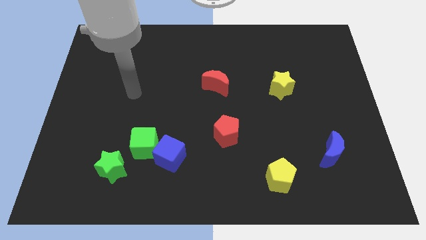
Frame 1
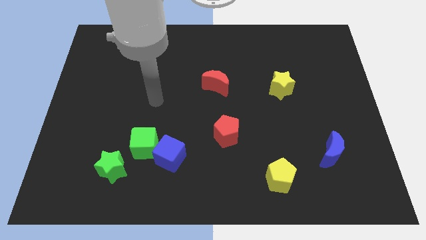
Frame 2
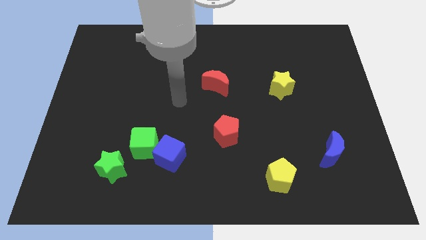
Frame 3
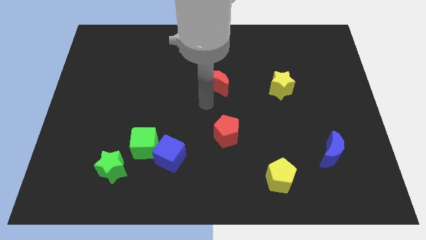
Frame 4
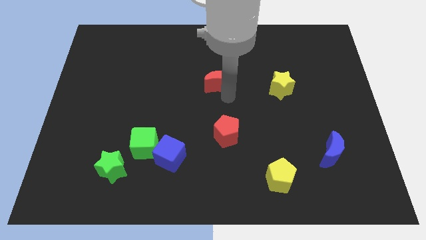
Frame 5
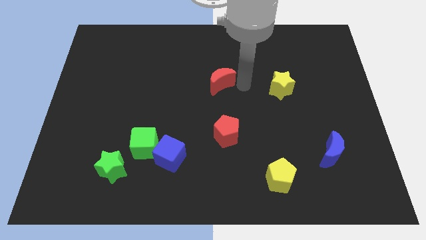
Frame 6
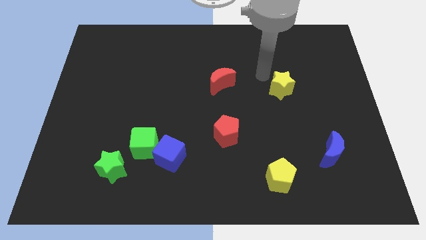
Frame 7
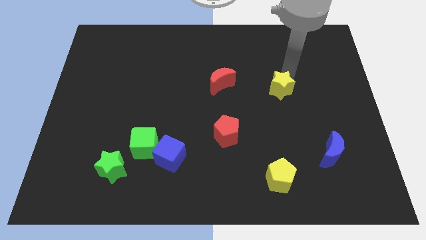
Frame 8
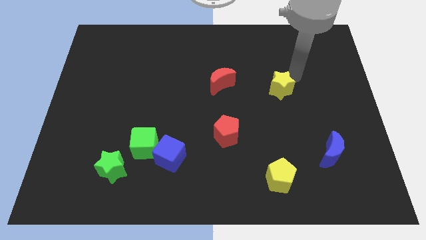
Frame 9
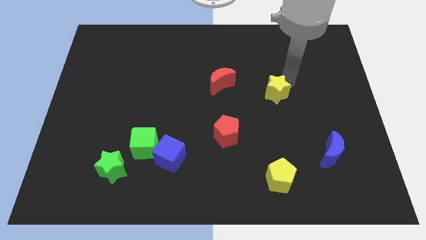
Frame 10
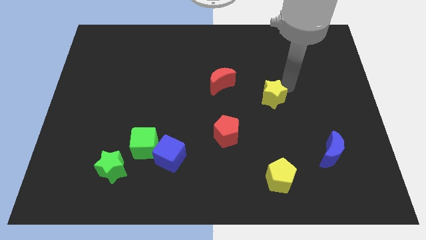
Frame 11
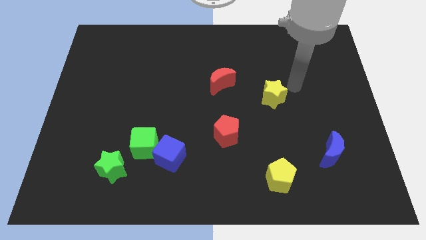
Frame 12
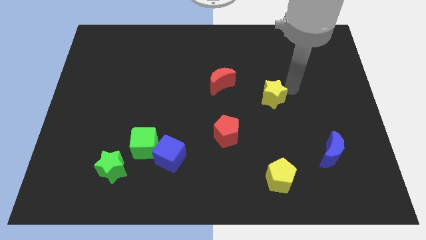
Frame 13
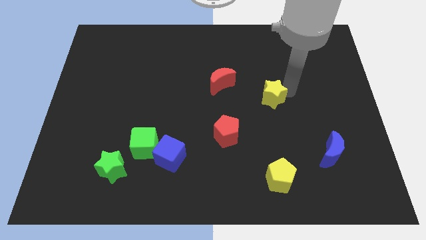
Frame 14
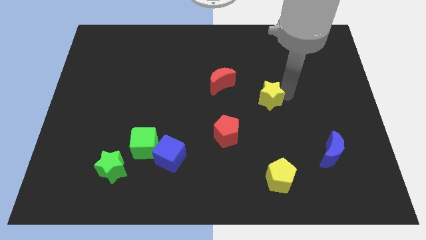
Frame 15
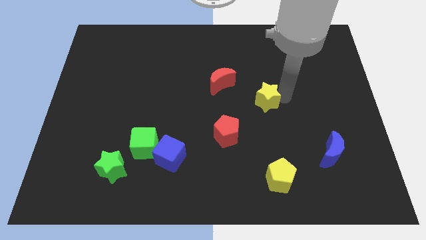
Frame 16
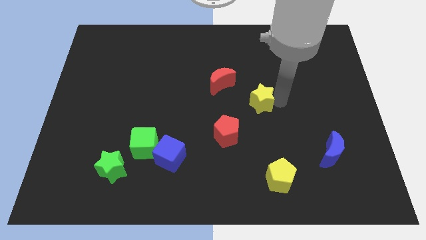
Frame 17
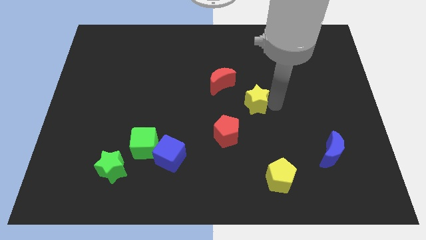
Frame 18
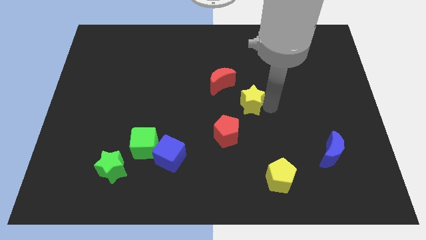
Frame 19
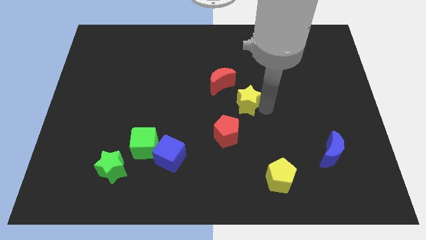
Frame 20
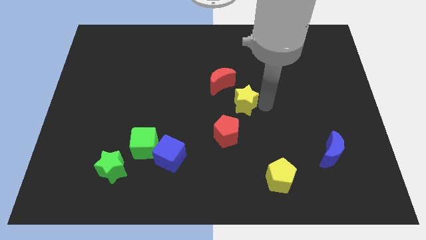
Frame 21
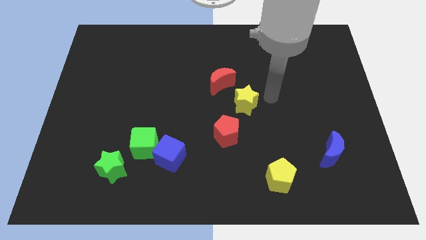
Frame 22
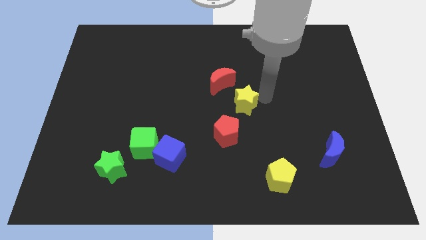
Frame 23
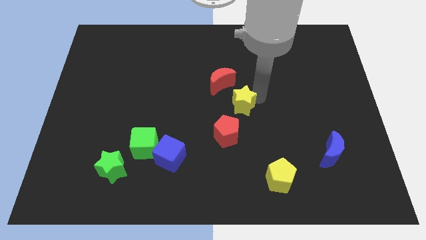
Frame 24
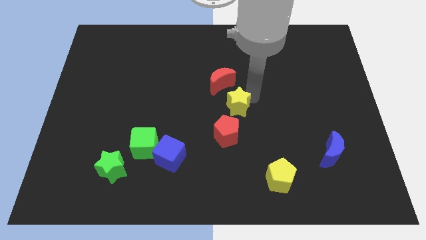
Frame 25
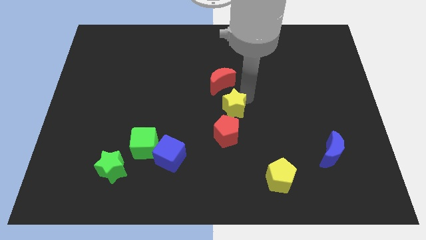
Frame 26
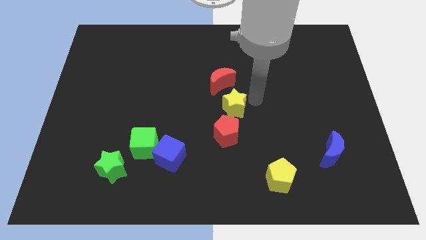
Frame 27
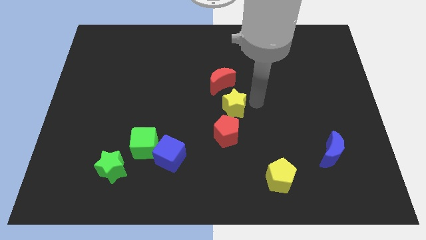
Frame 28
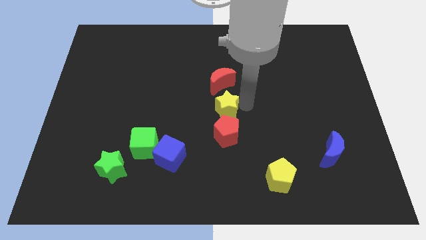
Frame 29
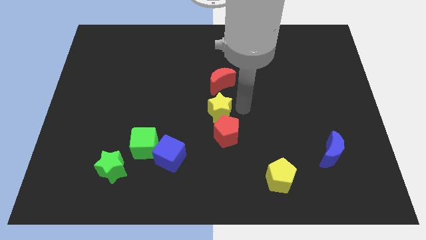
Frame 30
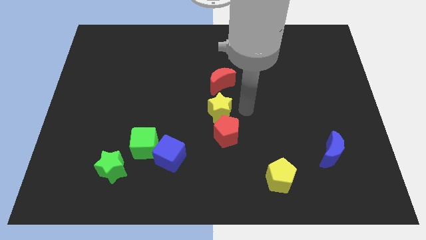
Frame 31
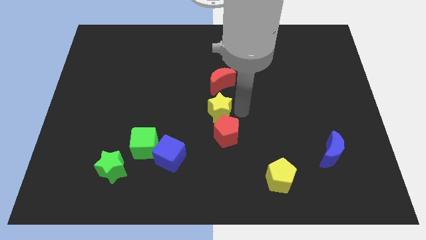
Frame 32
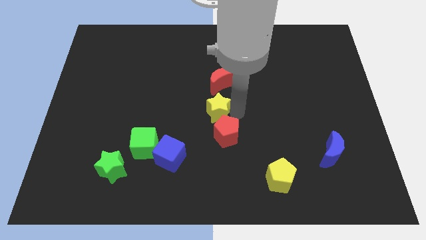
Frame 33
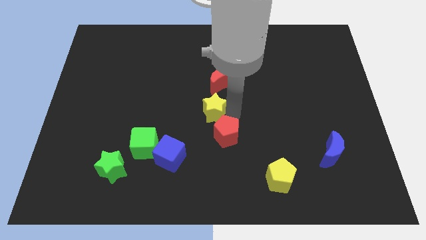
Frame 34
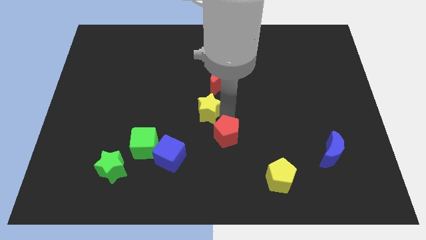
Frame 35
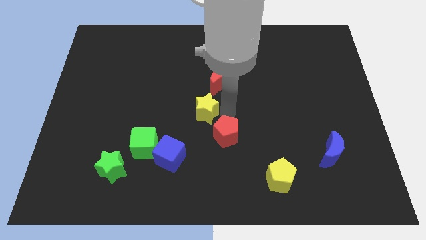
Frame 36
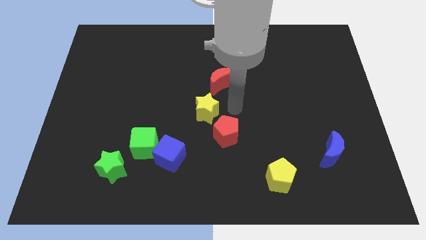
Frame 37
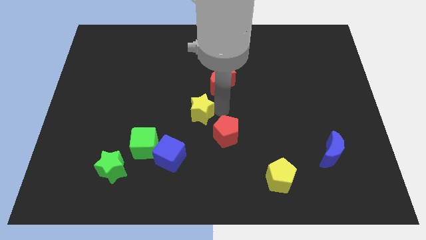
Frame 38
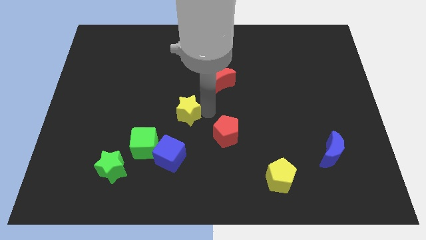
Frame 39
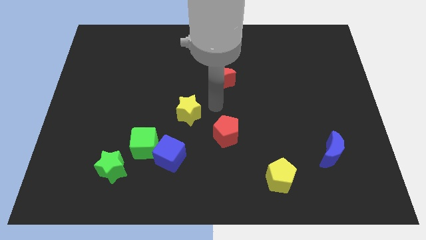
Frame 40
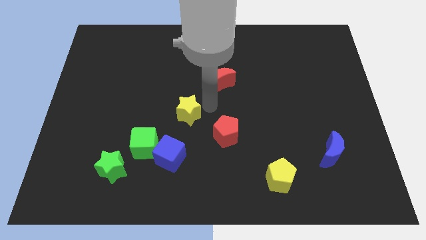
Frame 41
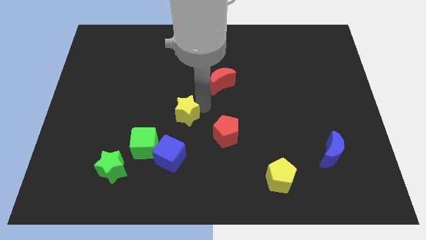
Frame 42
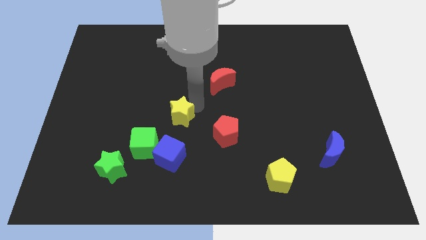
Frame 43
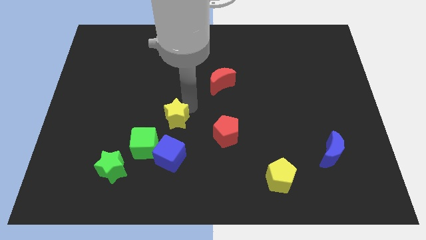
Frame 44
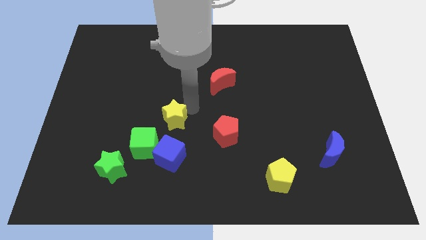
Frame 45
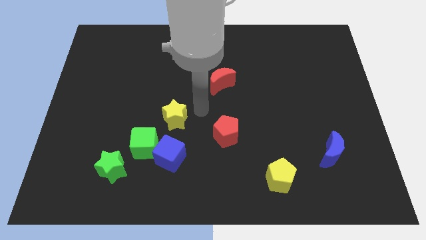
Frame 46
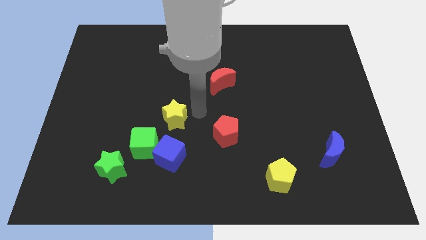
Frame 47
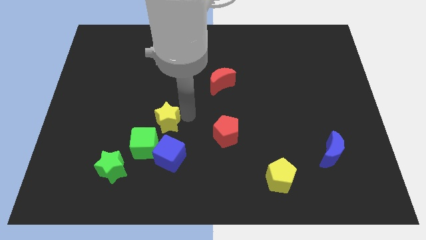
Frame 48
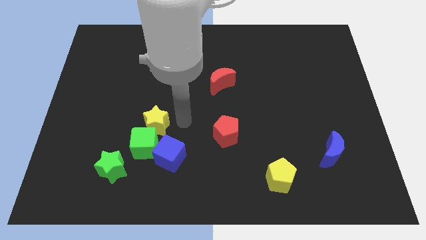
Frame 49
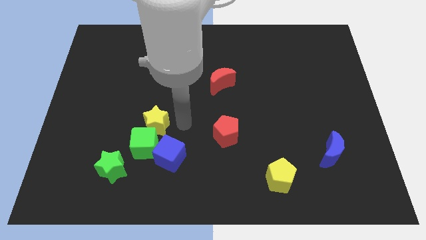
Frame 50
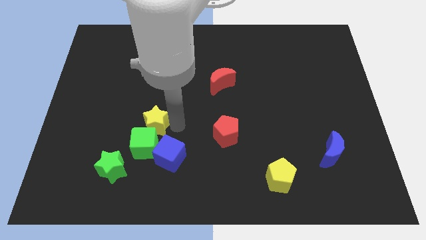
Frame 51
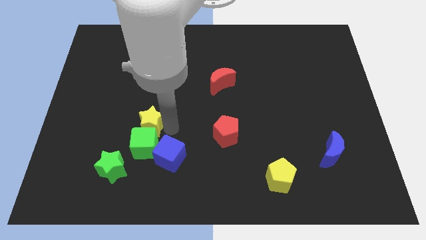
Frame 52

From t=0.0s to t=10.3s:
slide the yellow star diagonally up and to the left of the green cube

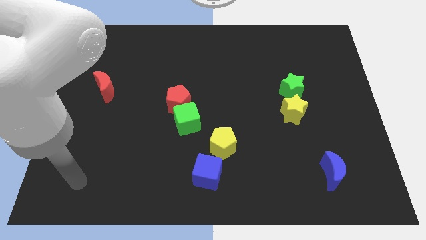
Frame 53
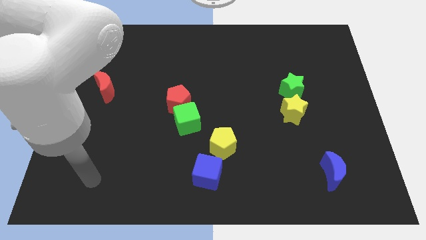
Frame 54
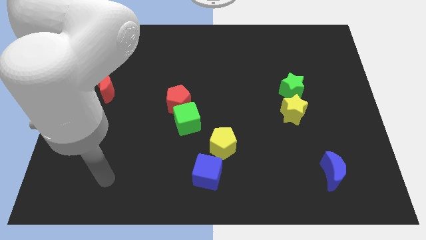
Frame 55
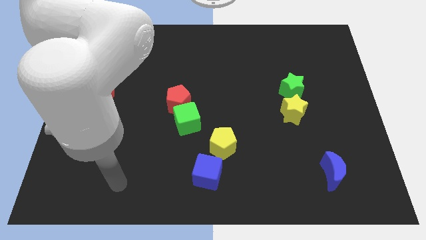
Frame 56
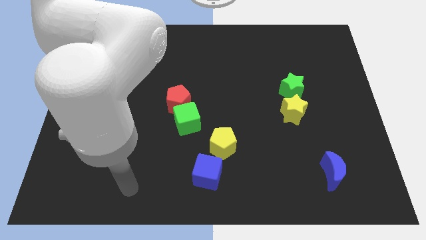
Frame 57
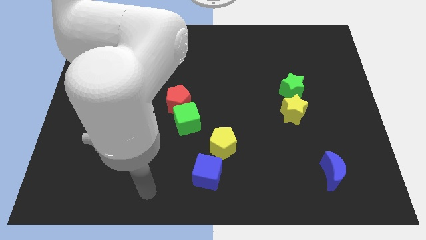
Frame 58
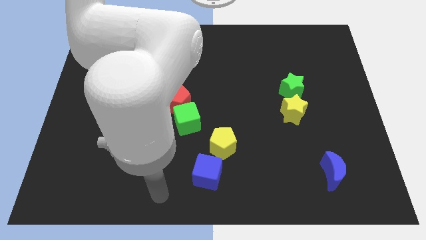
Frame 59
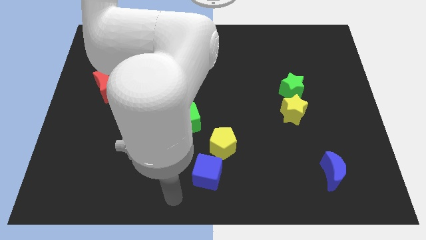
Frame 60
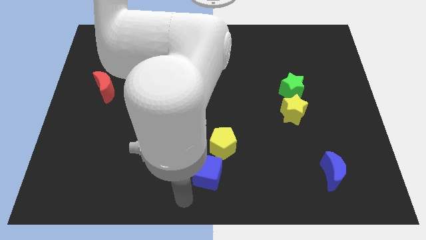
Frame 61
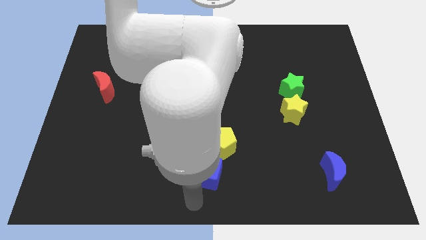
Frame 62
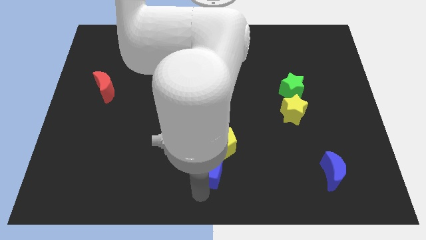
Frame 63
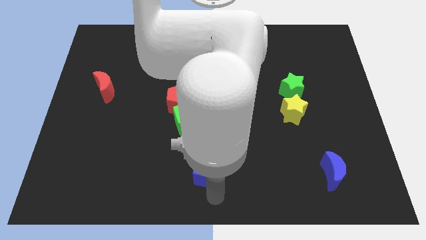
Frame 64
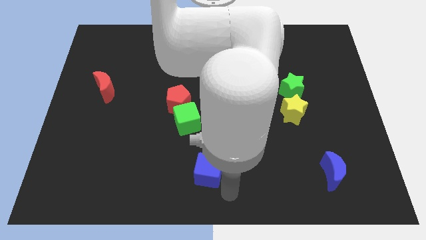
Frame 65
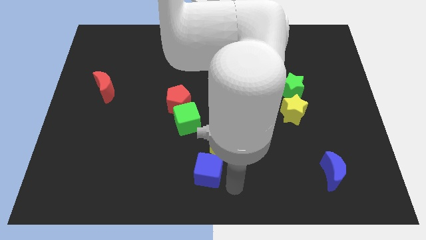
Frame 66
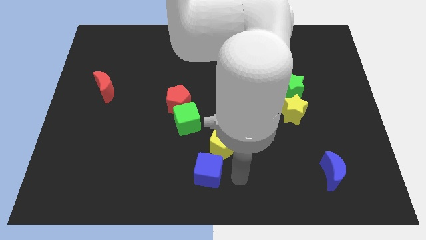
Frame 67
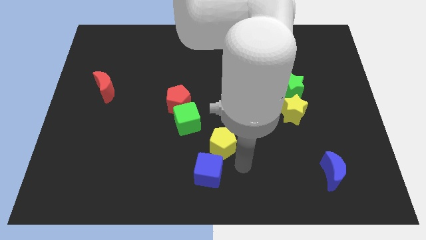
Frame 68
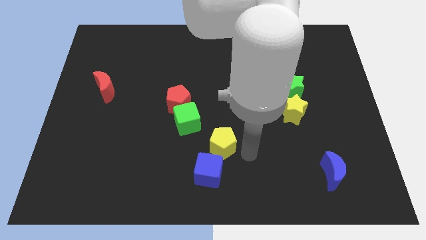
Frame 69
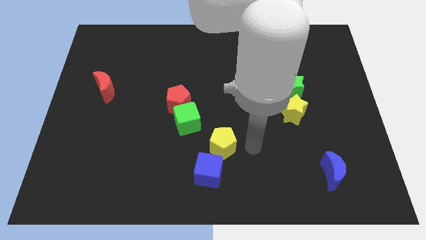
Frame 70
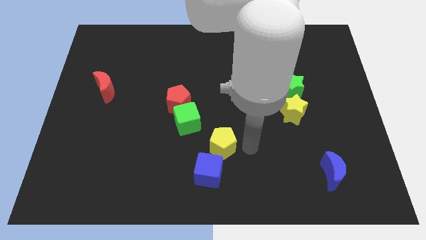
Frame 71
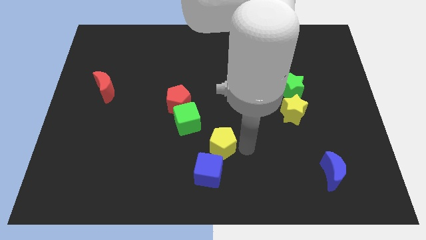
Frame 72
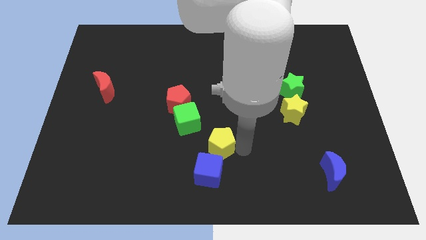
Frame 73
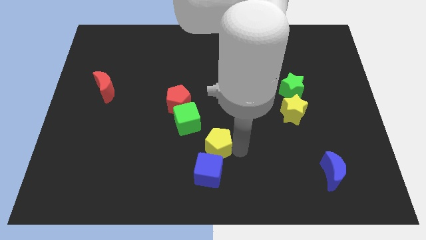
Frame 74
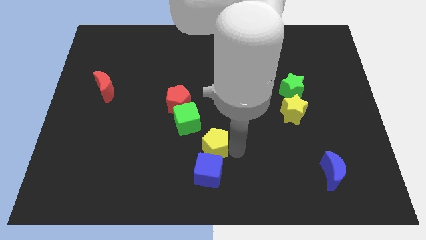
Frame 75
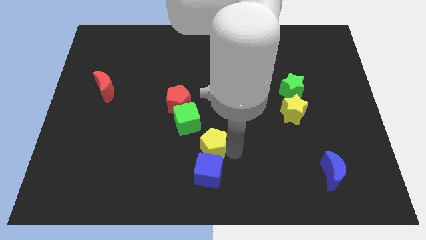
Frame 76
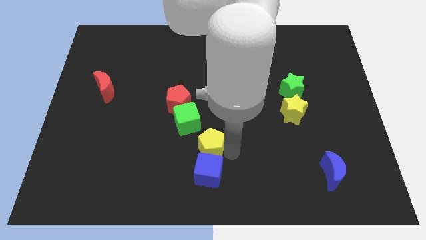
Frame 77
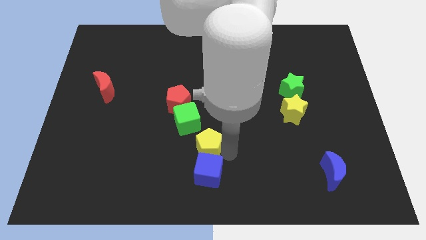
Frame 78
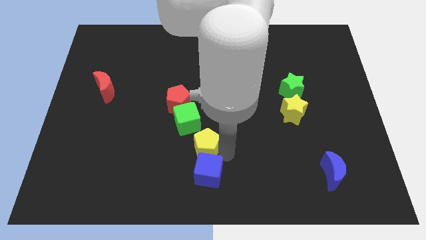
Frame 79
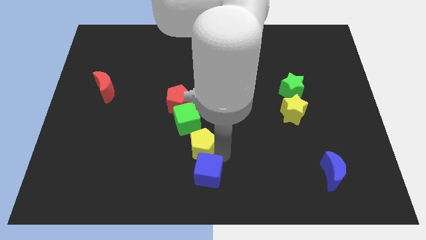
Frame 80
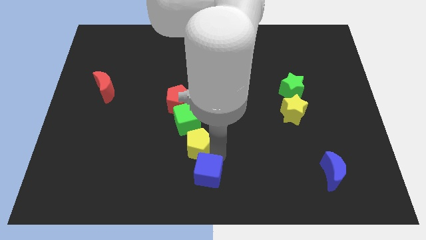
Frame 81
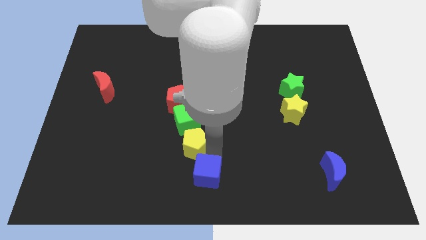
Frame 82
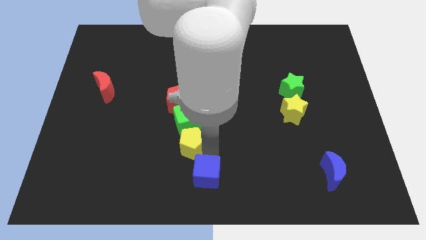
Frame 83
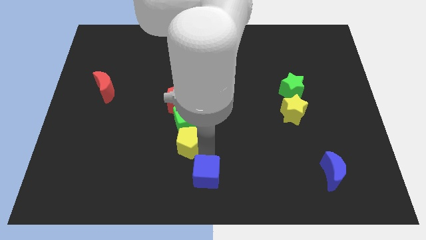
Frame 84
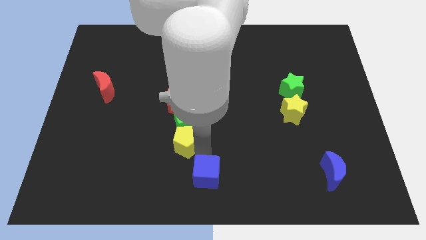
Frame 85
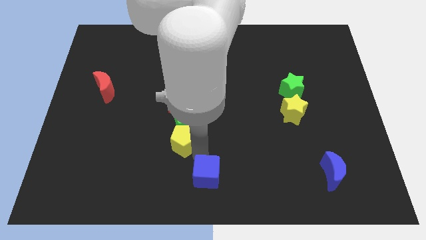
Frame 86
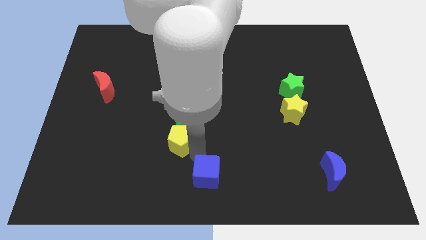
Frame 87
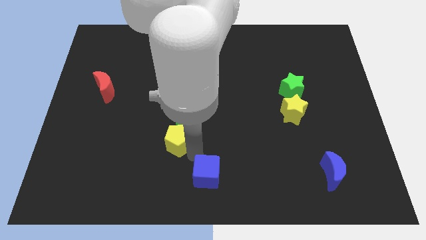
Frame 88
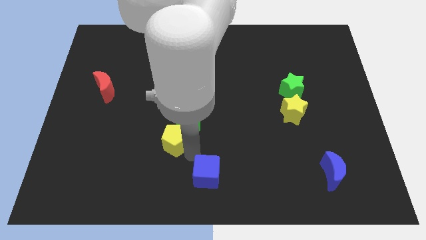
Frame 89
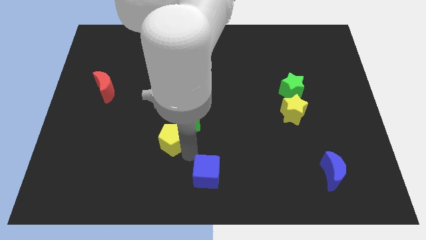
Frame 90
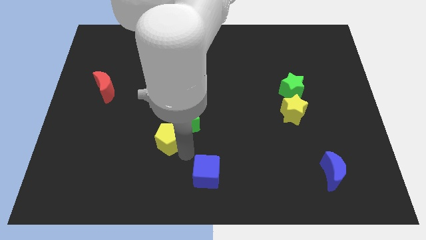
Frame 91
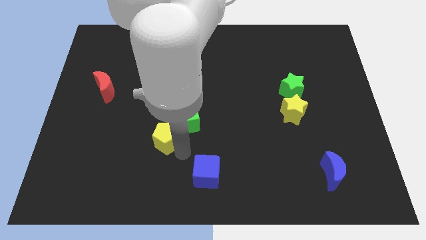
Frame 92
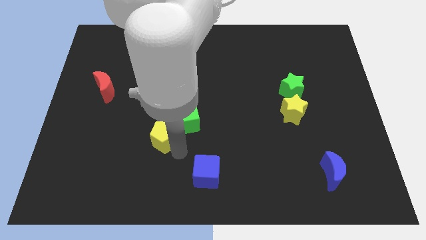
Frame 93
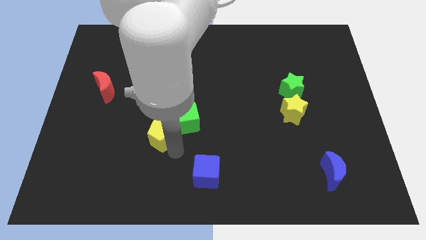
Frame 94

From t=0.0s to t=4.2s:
push the yellow pentagon to the bottom left of the red pentagon
